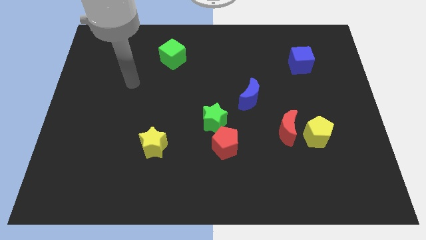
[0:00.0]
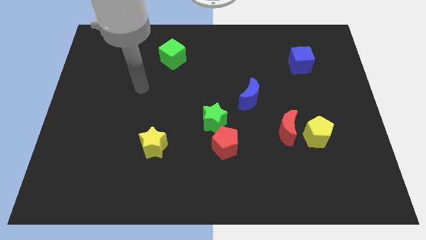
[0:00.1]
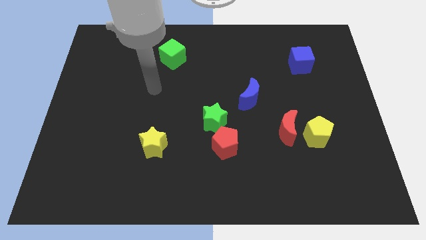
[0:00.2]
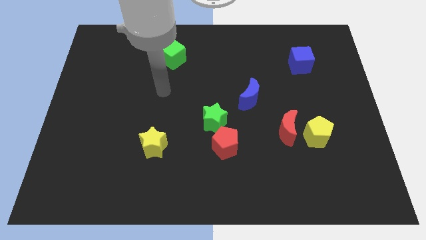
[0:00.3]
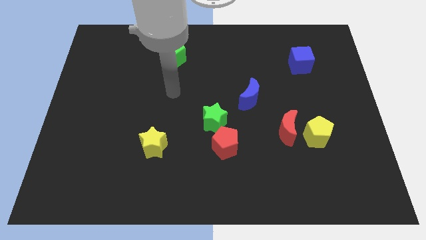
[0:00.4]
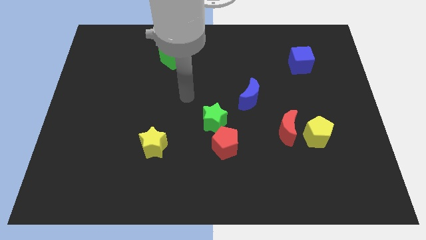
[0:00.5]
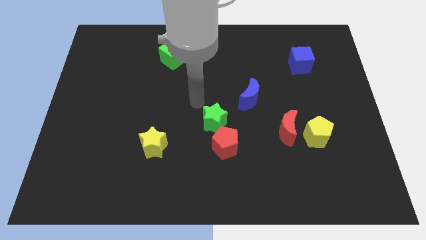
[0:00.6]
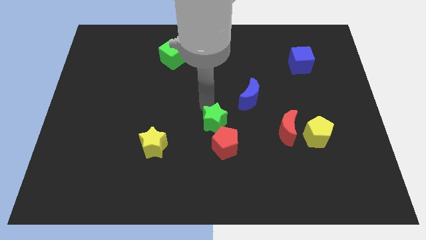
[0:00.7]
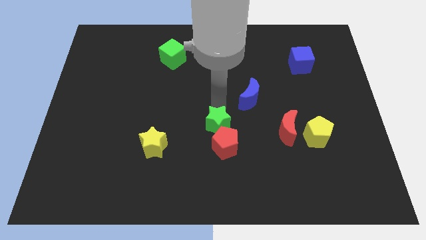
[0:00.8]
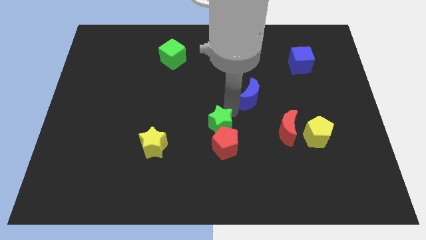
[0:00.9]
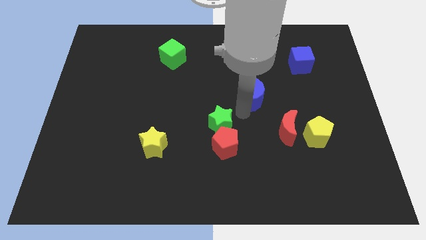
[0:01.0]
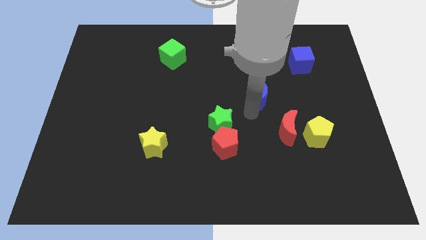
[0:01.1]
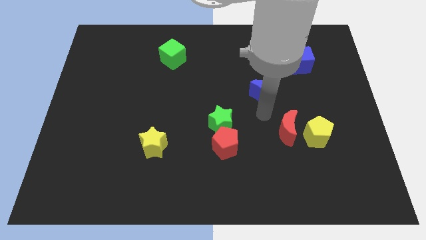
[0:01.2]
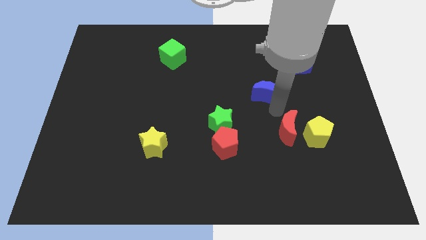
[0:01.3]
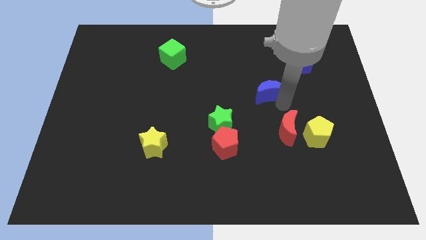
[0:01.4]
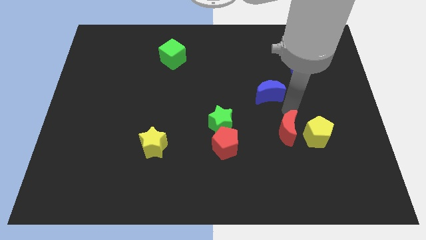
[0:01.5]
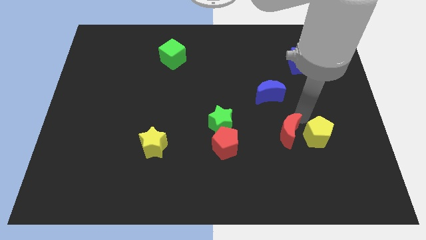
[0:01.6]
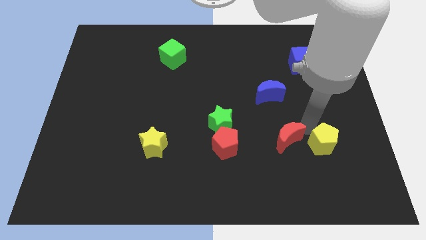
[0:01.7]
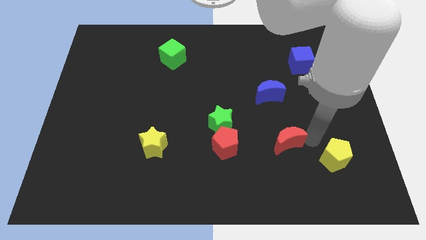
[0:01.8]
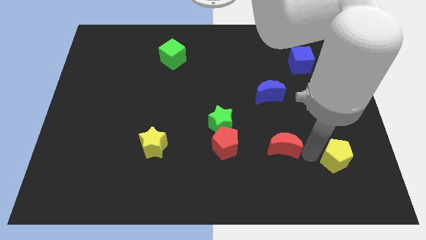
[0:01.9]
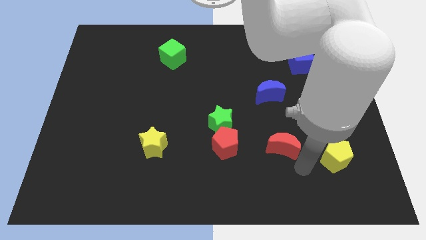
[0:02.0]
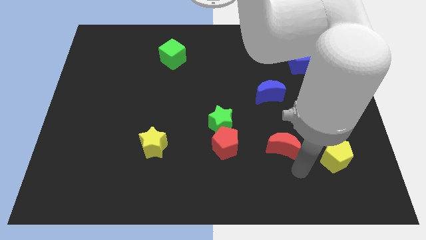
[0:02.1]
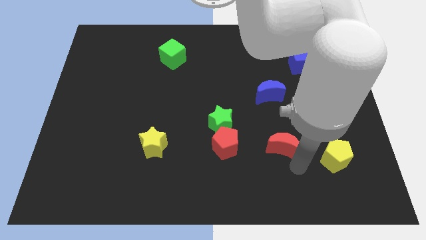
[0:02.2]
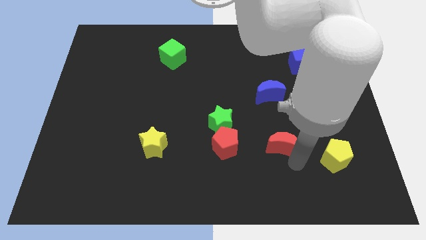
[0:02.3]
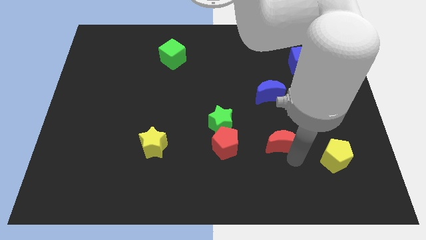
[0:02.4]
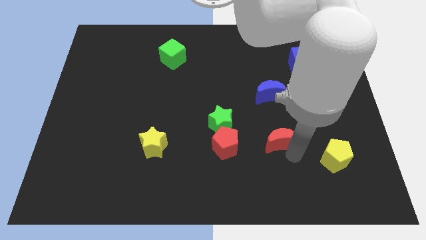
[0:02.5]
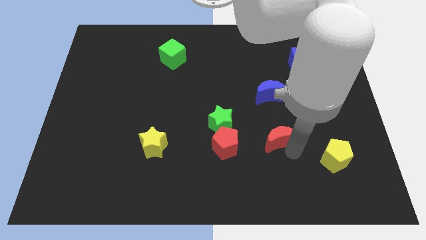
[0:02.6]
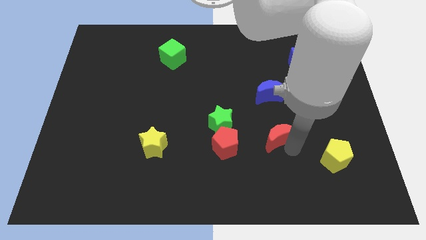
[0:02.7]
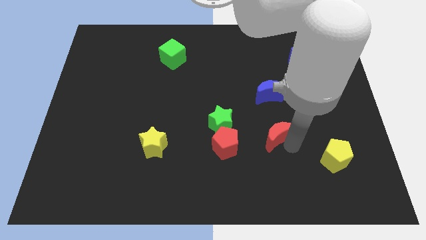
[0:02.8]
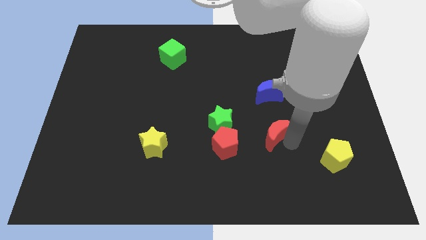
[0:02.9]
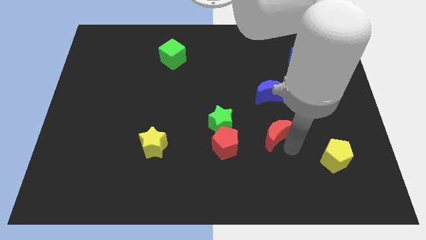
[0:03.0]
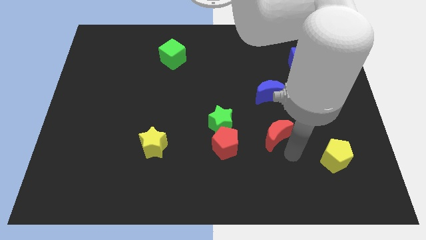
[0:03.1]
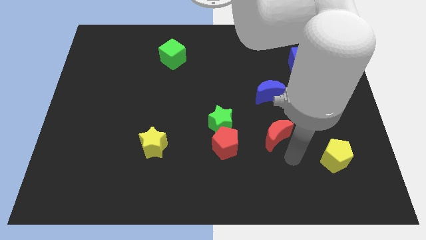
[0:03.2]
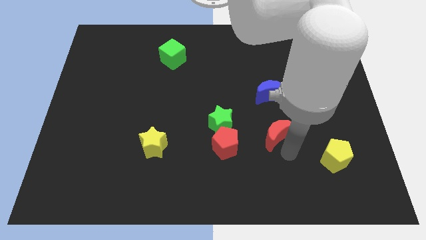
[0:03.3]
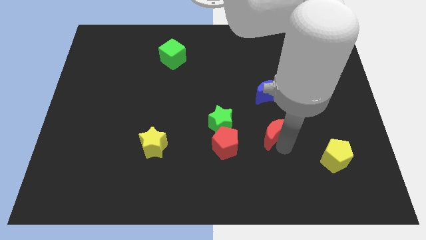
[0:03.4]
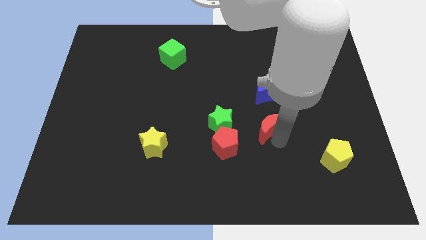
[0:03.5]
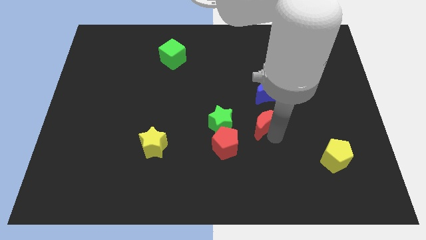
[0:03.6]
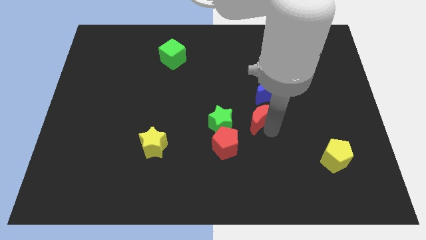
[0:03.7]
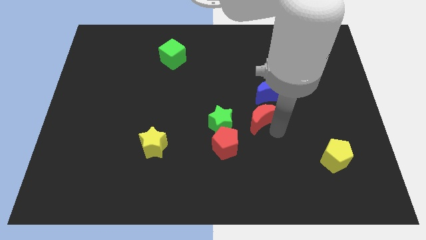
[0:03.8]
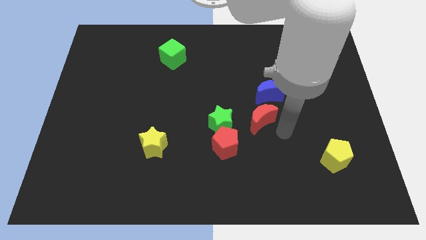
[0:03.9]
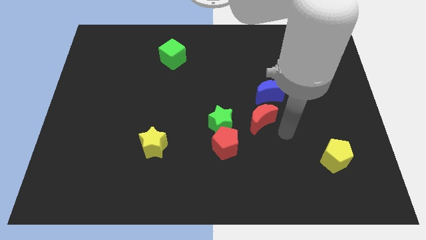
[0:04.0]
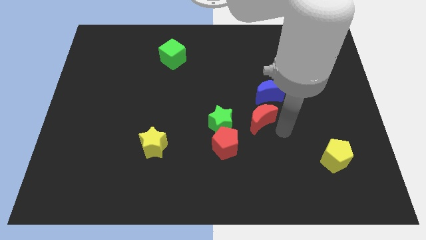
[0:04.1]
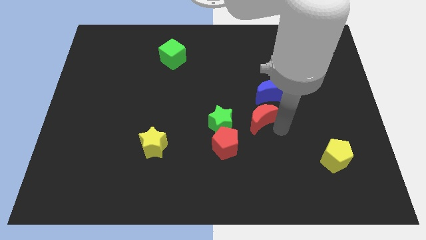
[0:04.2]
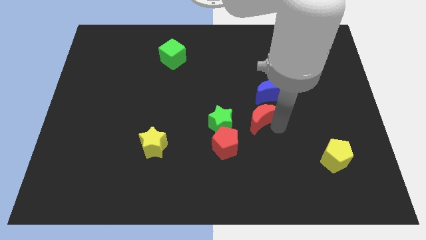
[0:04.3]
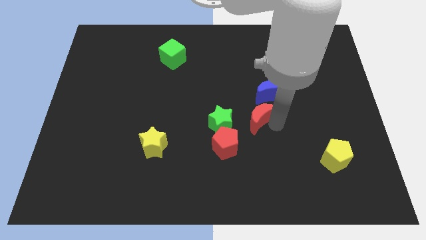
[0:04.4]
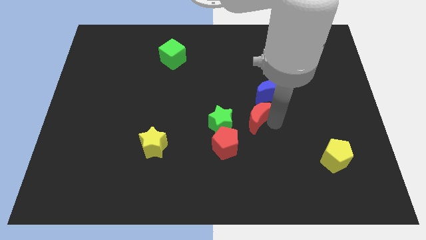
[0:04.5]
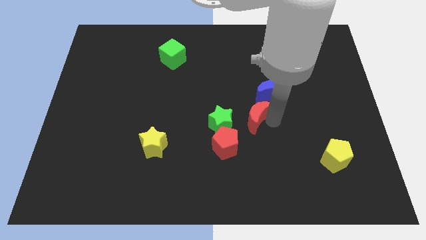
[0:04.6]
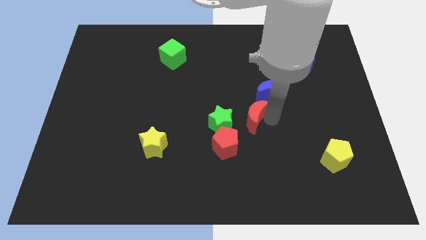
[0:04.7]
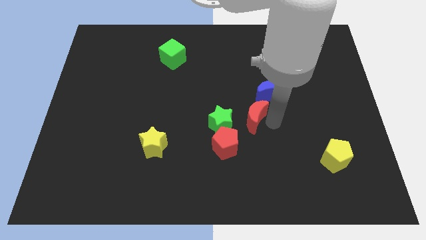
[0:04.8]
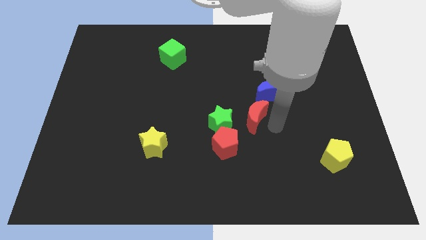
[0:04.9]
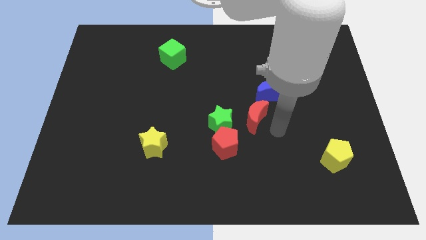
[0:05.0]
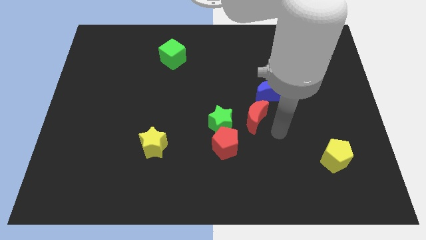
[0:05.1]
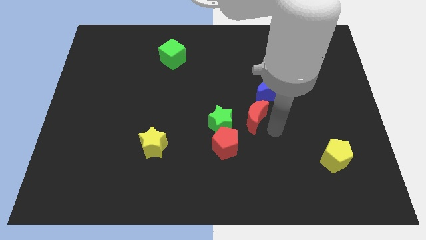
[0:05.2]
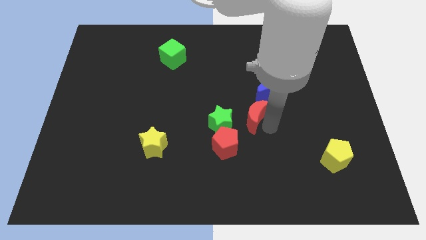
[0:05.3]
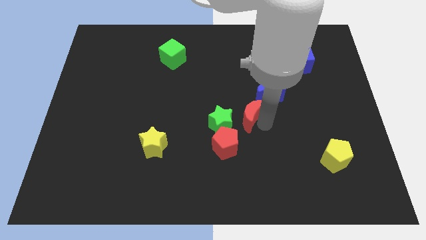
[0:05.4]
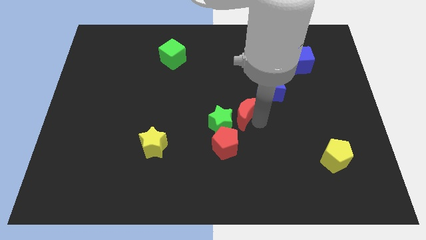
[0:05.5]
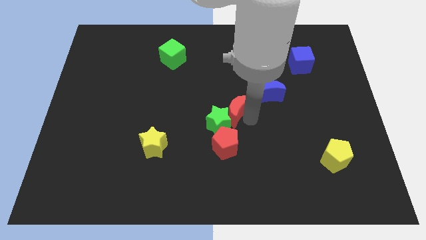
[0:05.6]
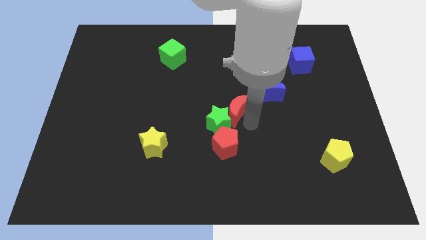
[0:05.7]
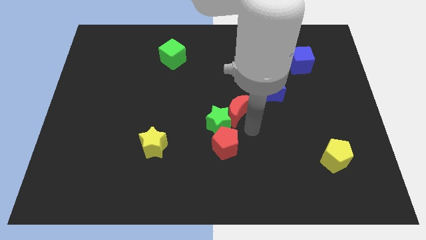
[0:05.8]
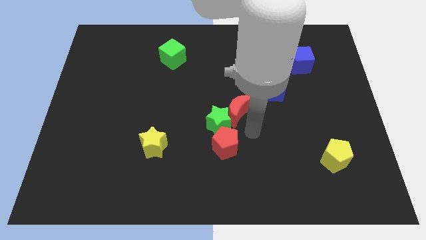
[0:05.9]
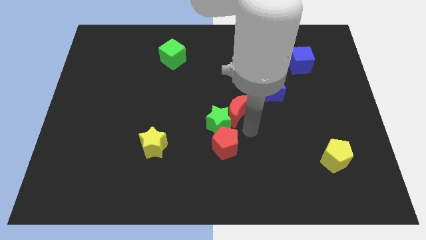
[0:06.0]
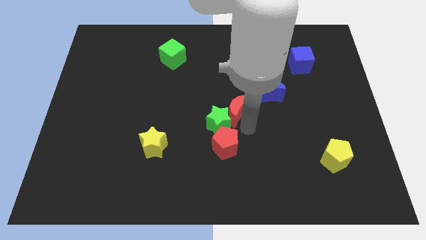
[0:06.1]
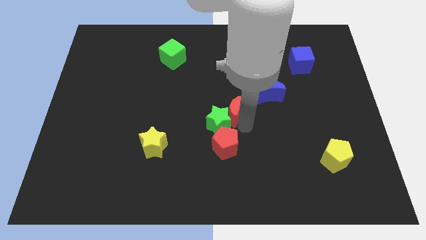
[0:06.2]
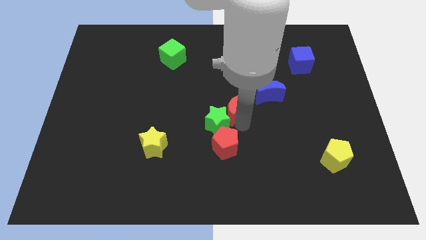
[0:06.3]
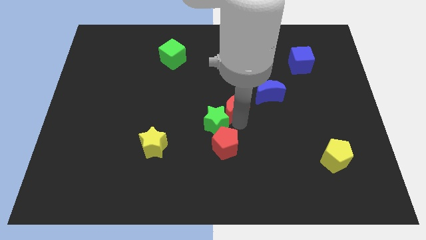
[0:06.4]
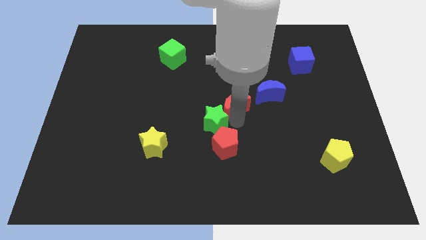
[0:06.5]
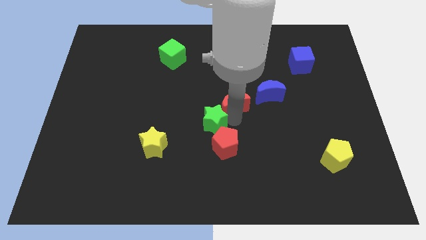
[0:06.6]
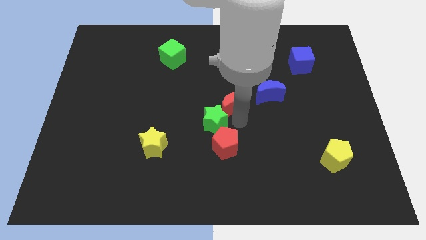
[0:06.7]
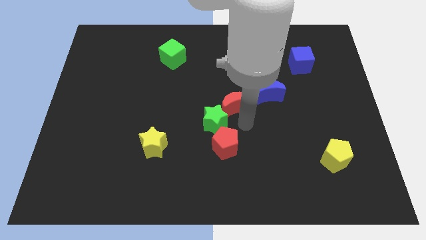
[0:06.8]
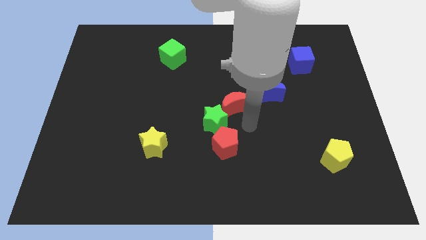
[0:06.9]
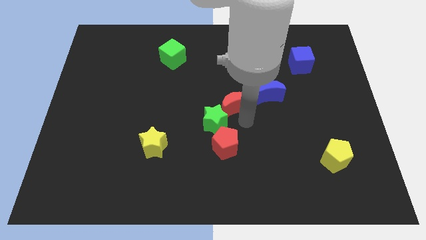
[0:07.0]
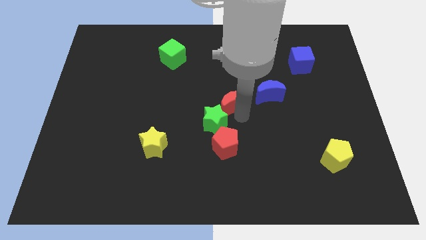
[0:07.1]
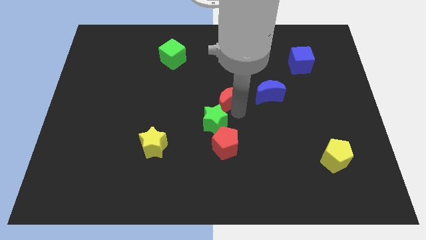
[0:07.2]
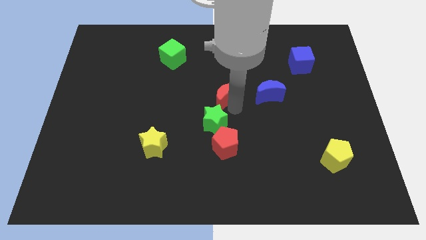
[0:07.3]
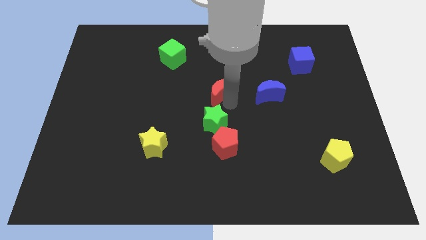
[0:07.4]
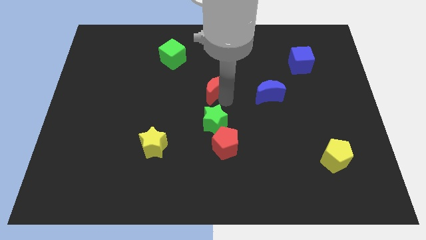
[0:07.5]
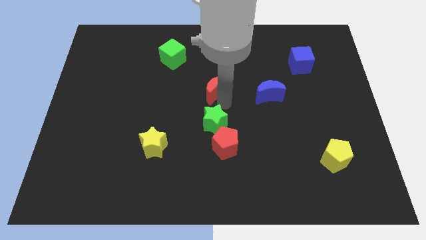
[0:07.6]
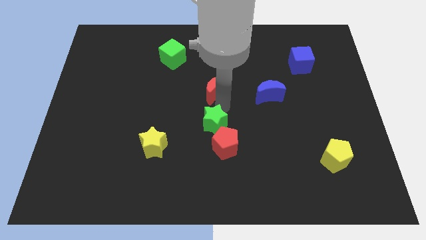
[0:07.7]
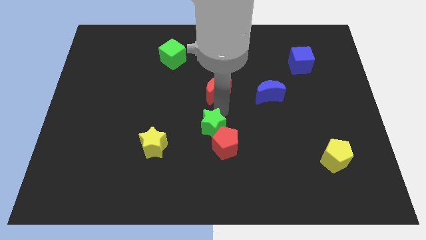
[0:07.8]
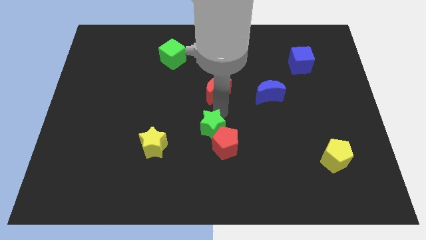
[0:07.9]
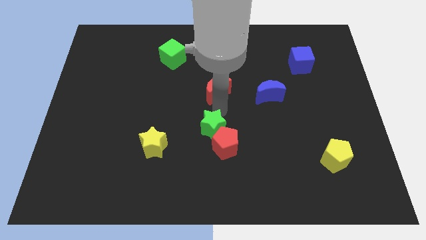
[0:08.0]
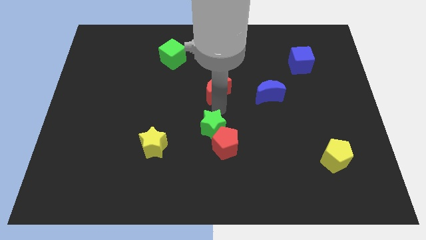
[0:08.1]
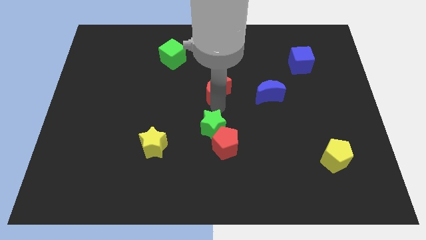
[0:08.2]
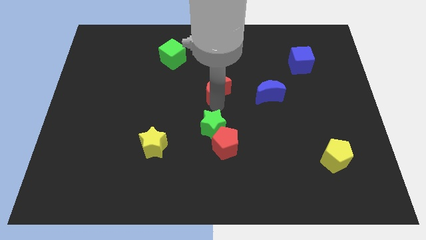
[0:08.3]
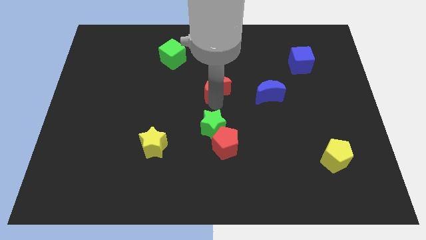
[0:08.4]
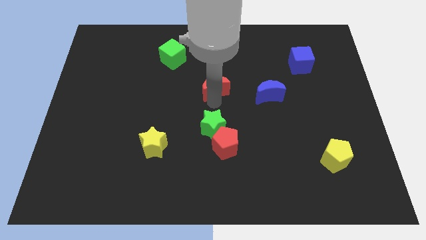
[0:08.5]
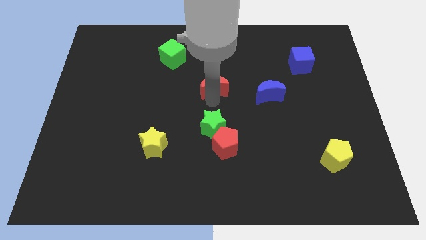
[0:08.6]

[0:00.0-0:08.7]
slide the red moon diagonally up and left
